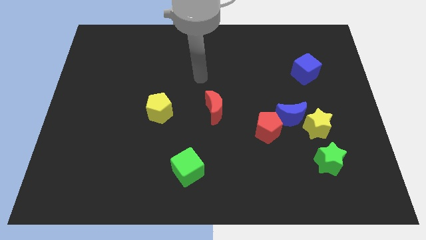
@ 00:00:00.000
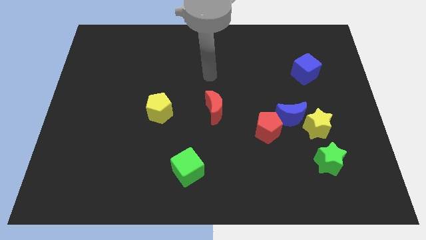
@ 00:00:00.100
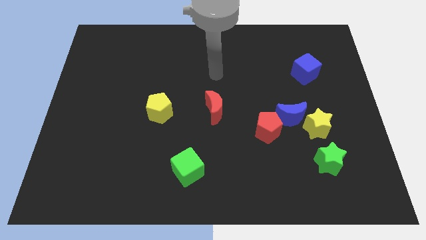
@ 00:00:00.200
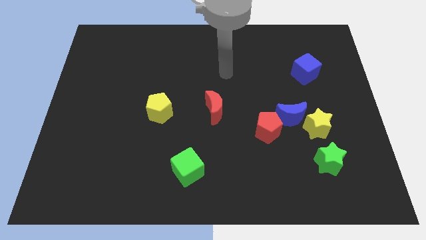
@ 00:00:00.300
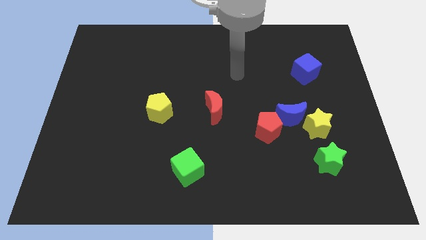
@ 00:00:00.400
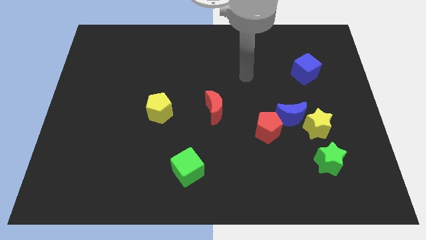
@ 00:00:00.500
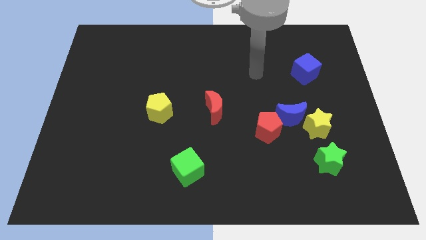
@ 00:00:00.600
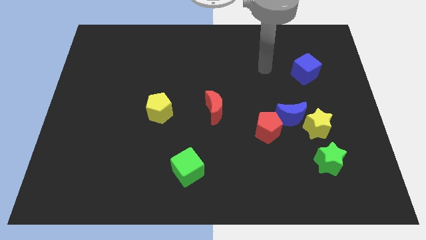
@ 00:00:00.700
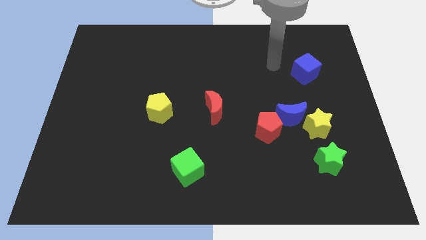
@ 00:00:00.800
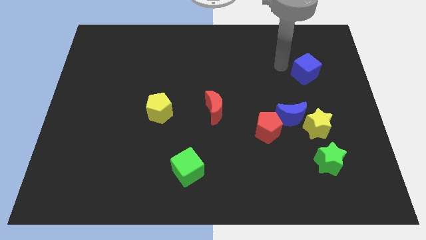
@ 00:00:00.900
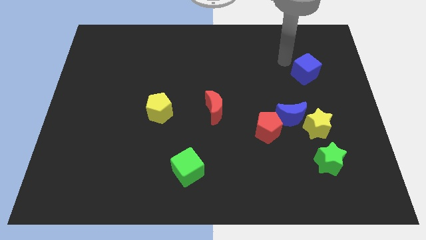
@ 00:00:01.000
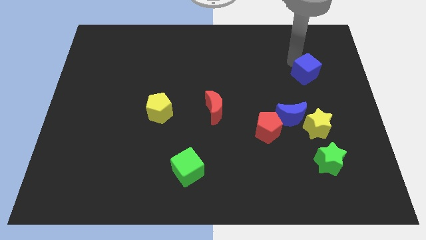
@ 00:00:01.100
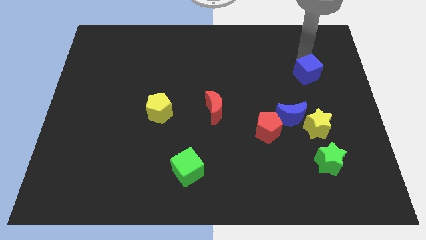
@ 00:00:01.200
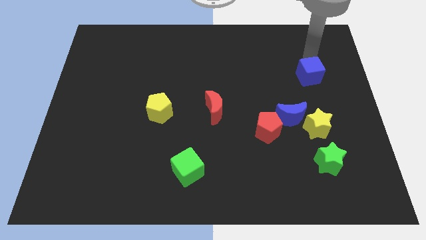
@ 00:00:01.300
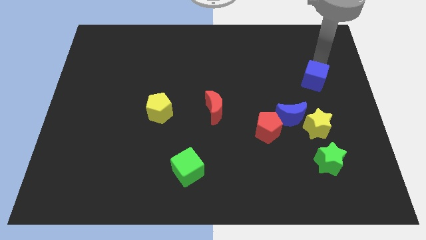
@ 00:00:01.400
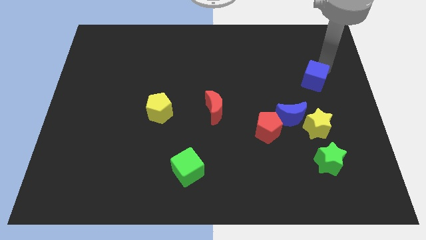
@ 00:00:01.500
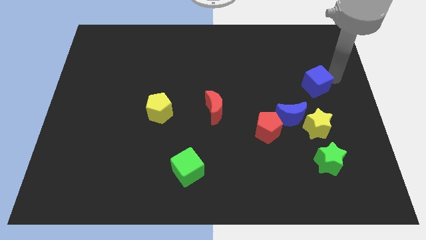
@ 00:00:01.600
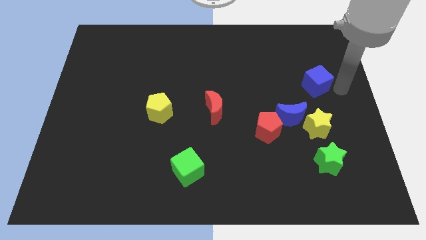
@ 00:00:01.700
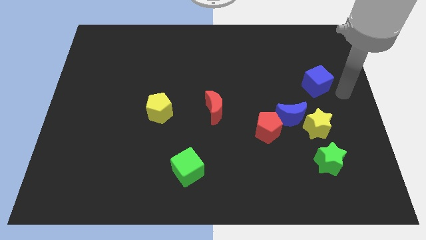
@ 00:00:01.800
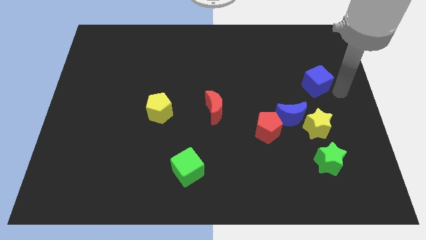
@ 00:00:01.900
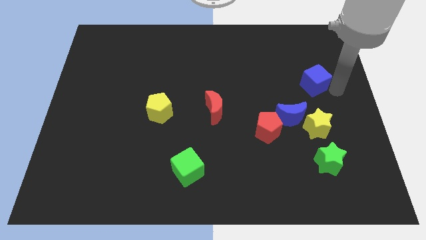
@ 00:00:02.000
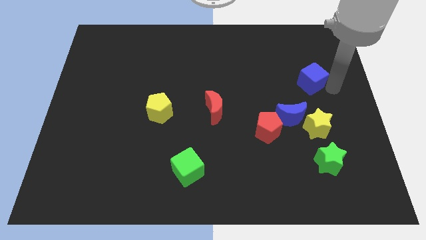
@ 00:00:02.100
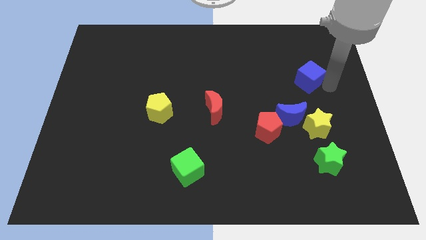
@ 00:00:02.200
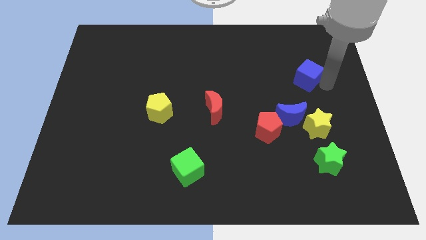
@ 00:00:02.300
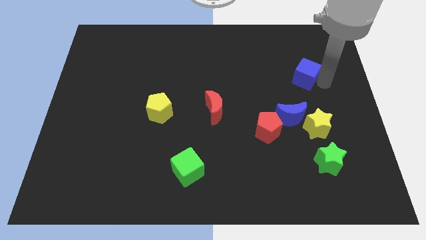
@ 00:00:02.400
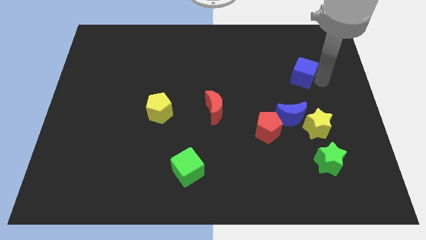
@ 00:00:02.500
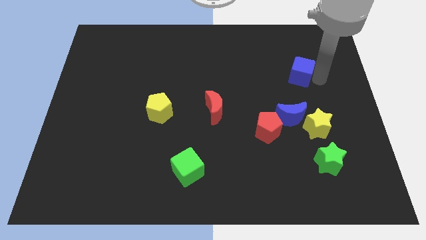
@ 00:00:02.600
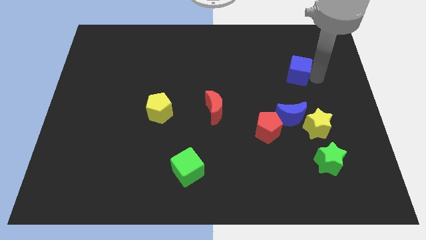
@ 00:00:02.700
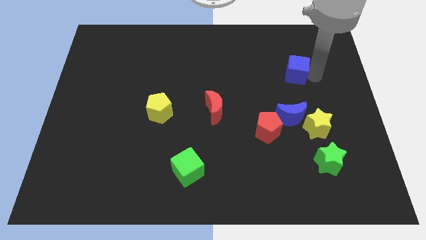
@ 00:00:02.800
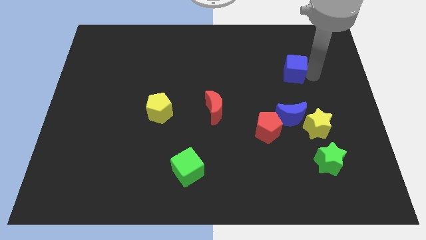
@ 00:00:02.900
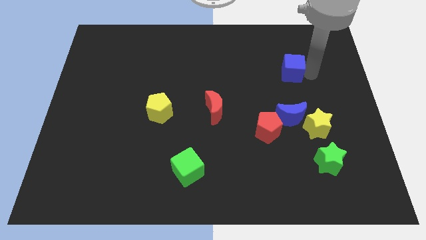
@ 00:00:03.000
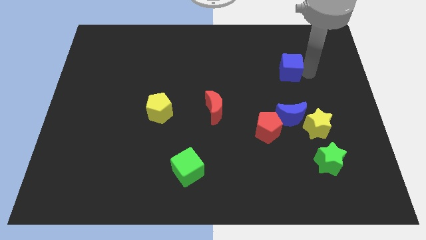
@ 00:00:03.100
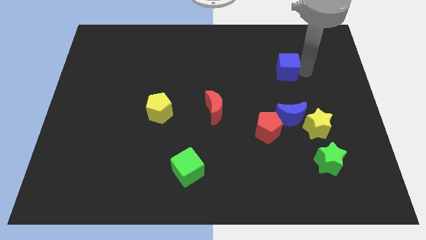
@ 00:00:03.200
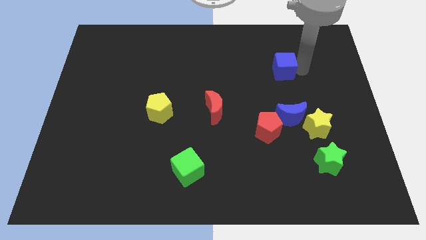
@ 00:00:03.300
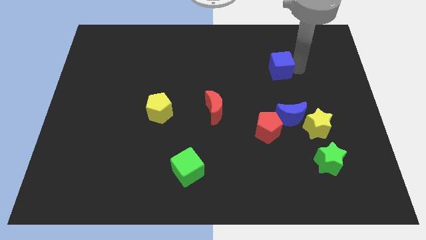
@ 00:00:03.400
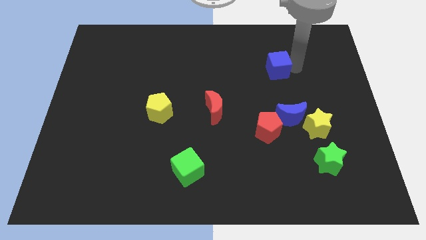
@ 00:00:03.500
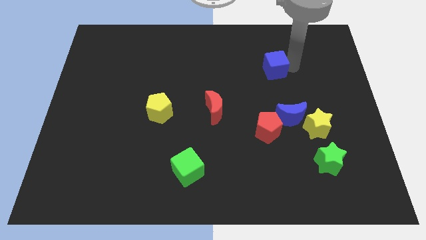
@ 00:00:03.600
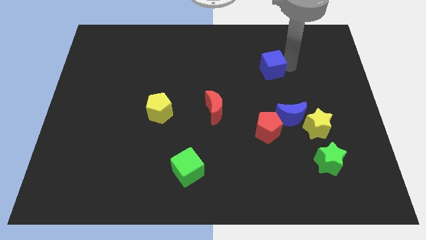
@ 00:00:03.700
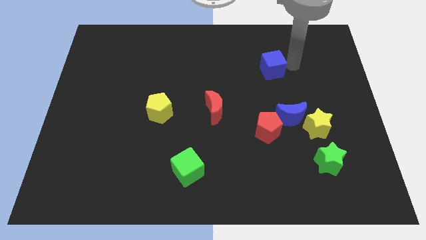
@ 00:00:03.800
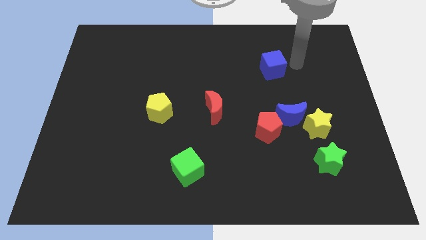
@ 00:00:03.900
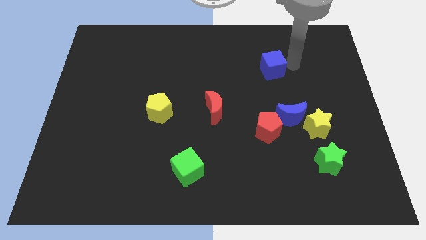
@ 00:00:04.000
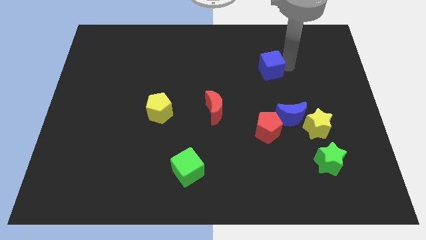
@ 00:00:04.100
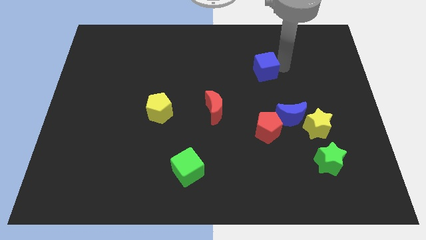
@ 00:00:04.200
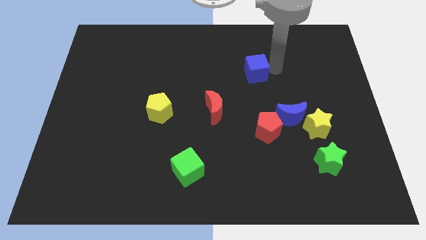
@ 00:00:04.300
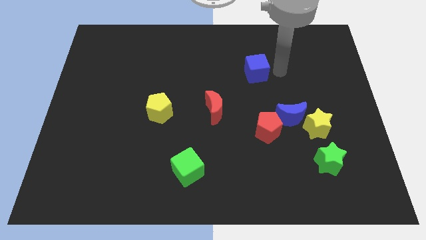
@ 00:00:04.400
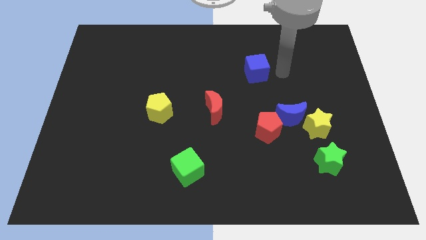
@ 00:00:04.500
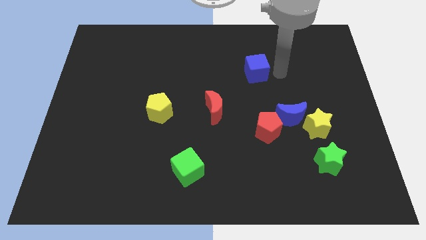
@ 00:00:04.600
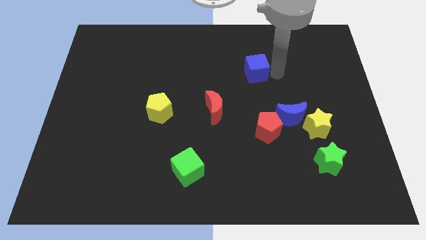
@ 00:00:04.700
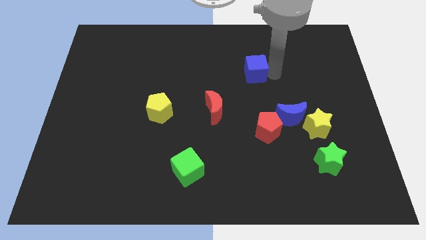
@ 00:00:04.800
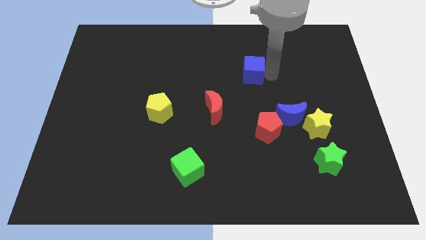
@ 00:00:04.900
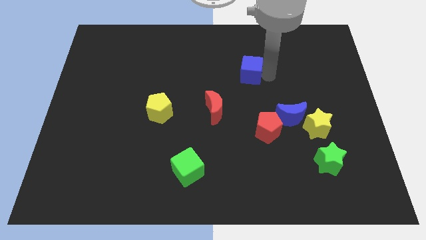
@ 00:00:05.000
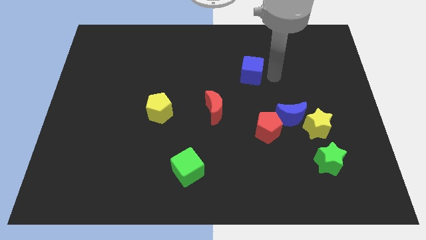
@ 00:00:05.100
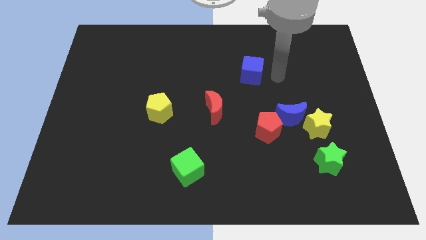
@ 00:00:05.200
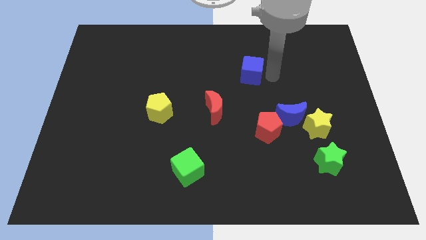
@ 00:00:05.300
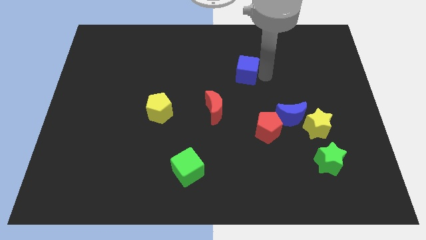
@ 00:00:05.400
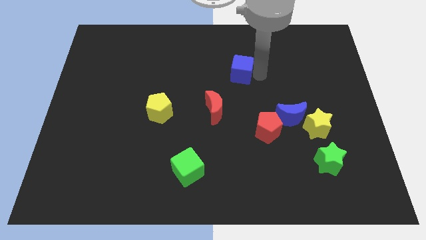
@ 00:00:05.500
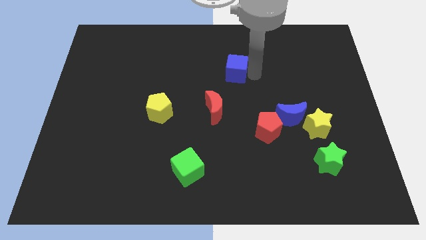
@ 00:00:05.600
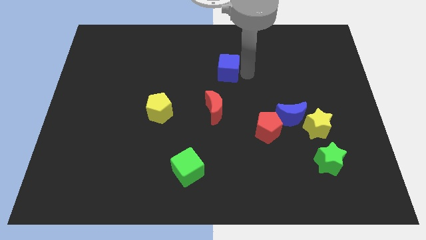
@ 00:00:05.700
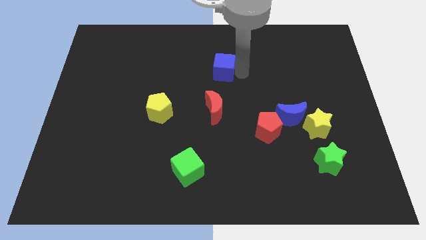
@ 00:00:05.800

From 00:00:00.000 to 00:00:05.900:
push the blue cube left

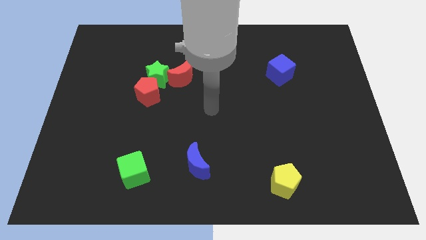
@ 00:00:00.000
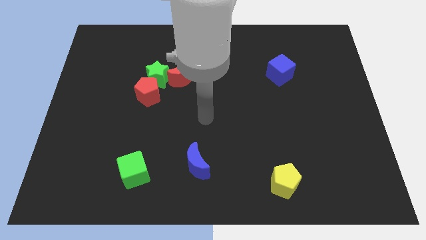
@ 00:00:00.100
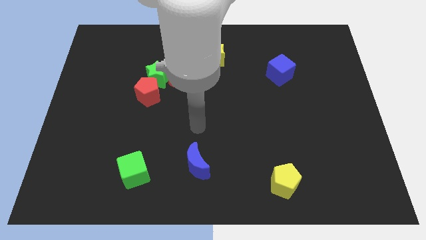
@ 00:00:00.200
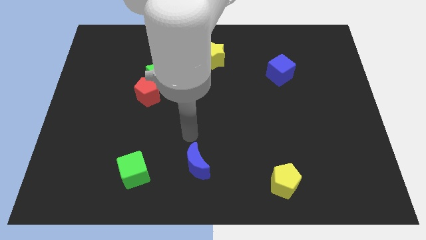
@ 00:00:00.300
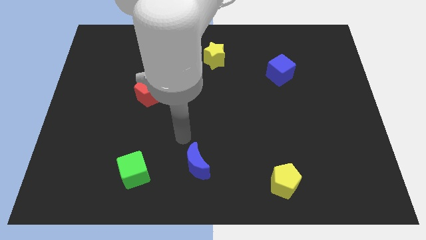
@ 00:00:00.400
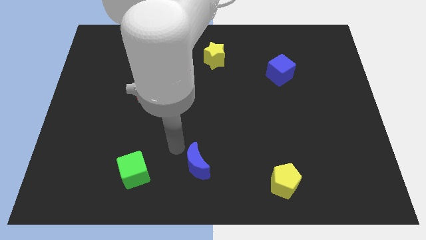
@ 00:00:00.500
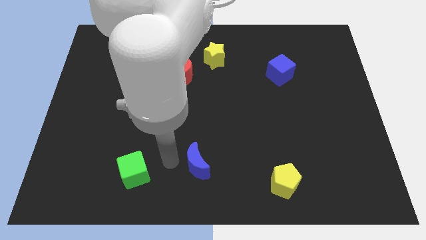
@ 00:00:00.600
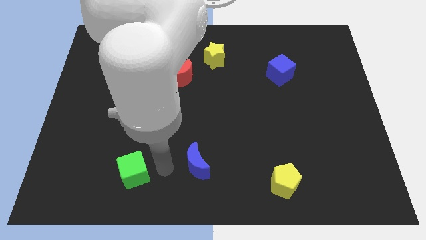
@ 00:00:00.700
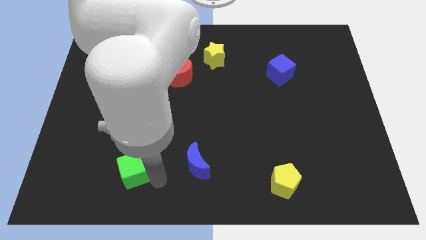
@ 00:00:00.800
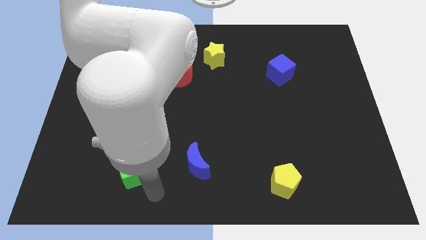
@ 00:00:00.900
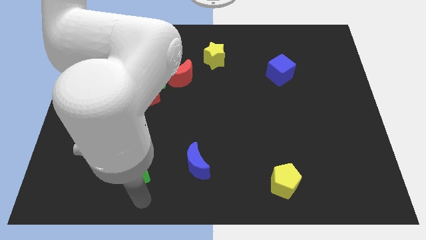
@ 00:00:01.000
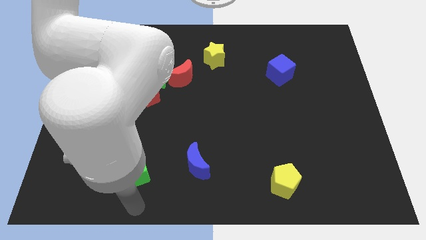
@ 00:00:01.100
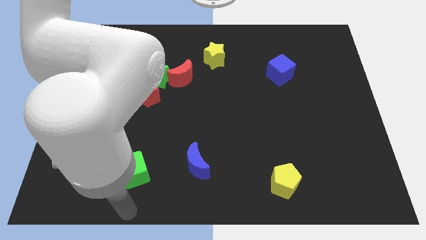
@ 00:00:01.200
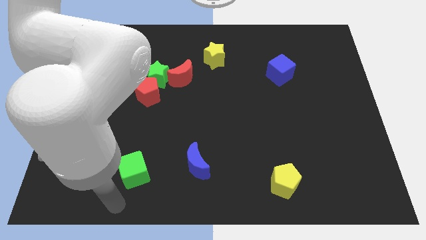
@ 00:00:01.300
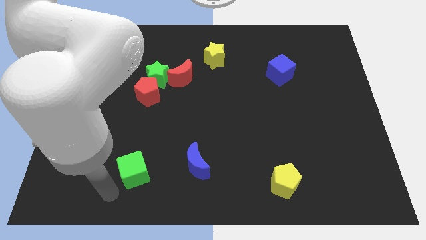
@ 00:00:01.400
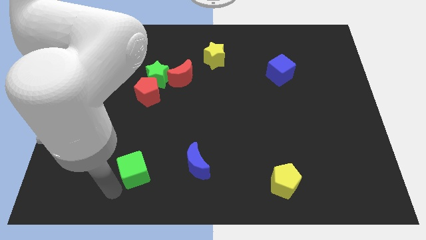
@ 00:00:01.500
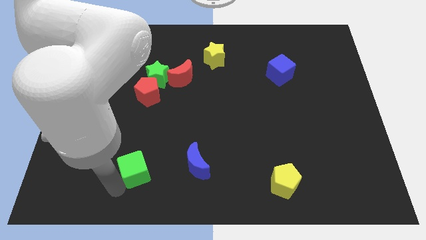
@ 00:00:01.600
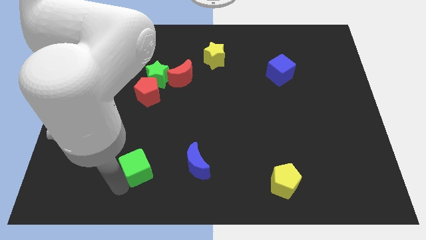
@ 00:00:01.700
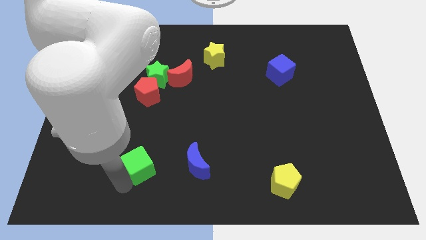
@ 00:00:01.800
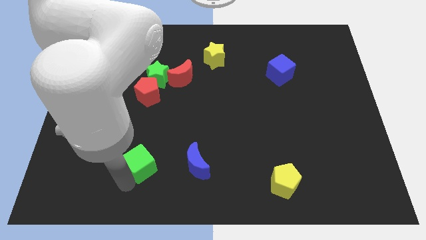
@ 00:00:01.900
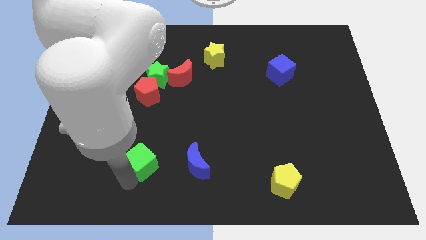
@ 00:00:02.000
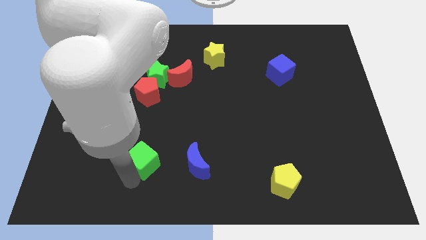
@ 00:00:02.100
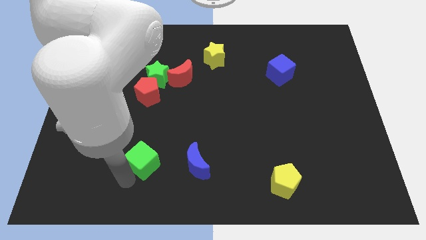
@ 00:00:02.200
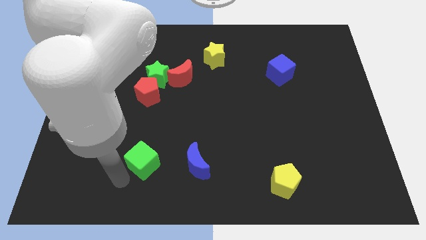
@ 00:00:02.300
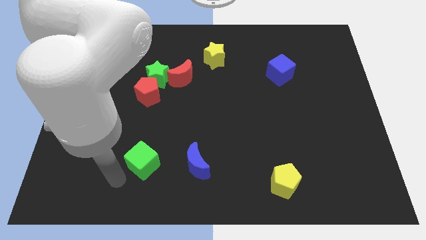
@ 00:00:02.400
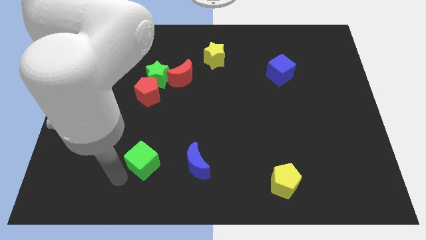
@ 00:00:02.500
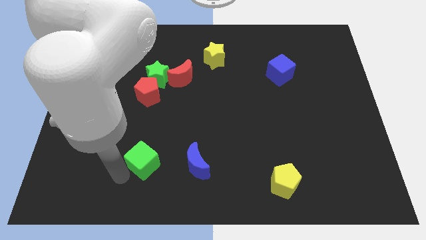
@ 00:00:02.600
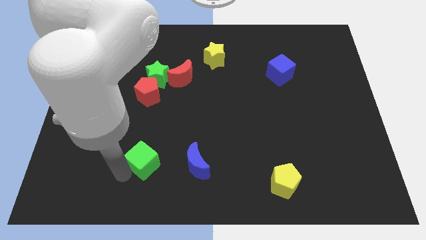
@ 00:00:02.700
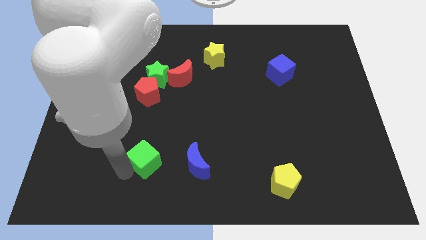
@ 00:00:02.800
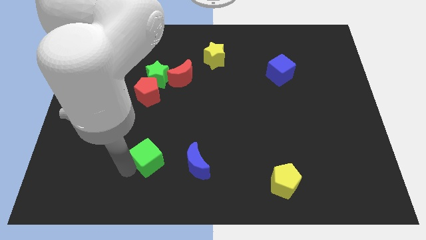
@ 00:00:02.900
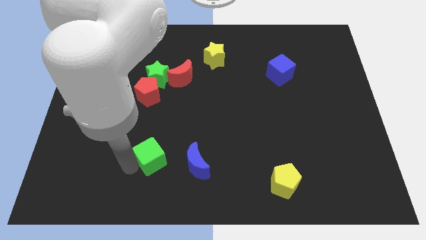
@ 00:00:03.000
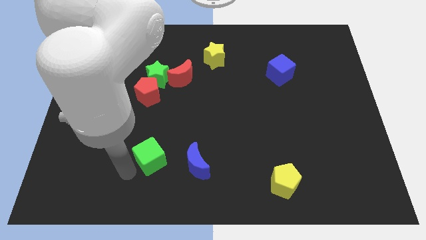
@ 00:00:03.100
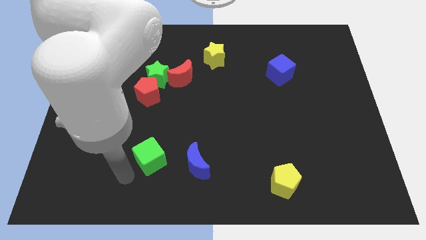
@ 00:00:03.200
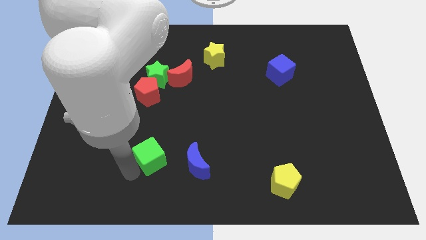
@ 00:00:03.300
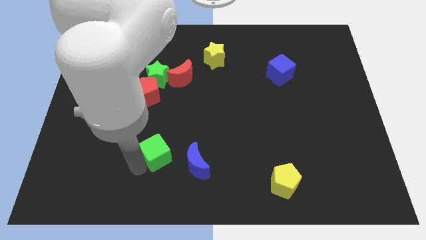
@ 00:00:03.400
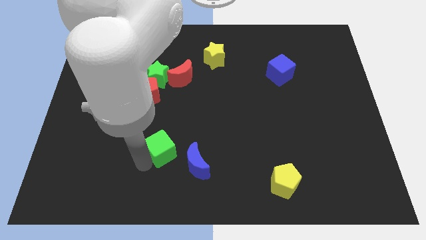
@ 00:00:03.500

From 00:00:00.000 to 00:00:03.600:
move the green cube diagonally up and right a little
